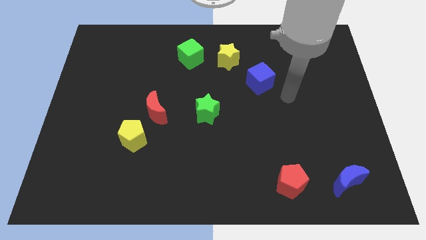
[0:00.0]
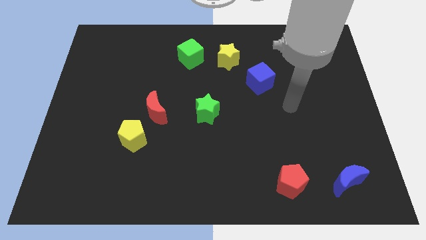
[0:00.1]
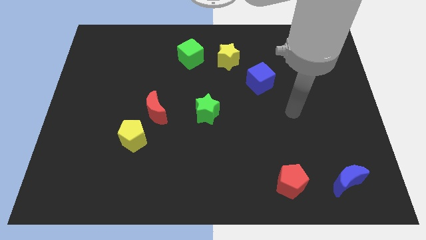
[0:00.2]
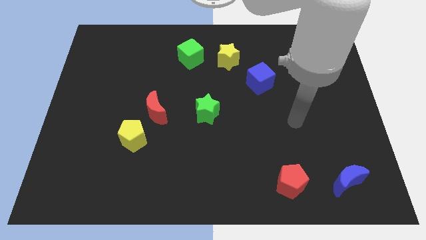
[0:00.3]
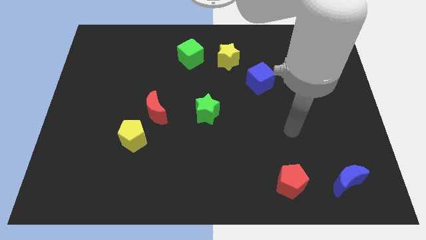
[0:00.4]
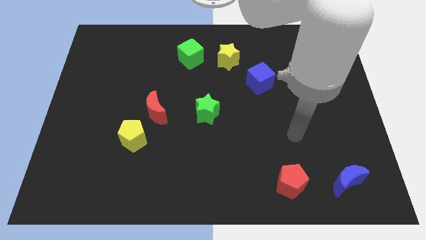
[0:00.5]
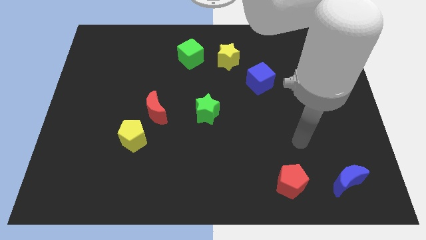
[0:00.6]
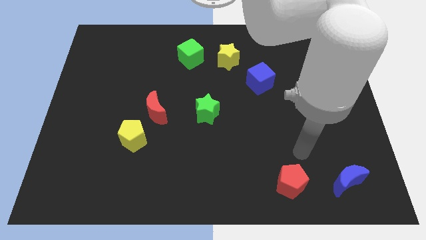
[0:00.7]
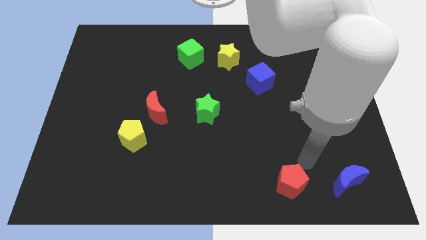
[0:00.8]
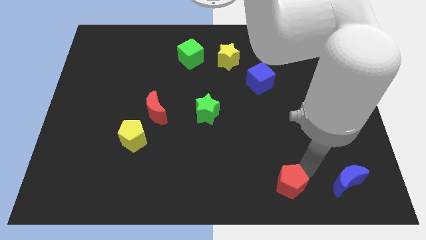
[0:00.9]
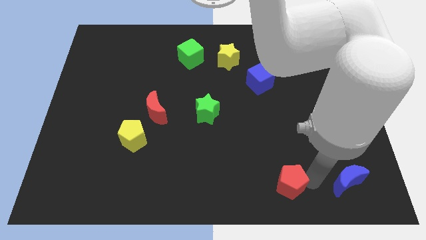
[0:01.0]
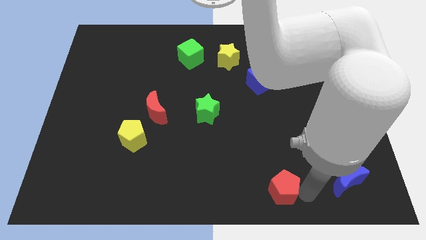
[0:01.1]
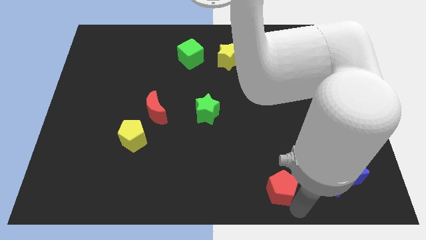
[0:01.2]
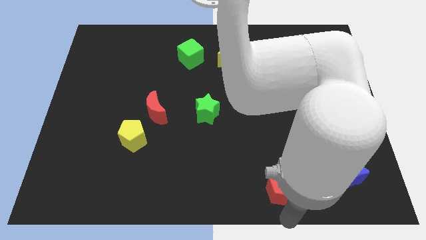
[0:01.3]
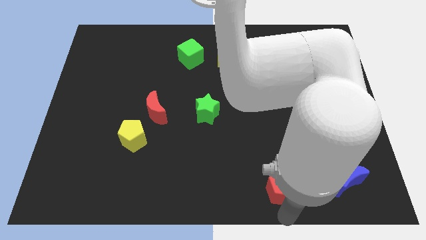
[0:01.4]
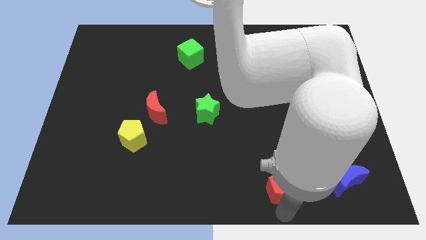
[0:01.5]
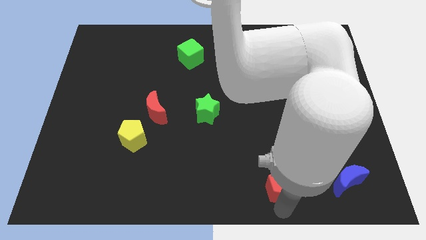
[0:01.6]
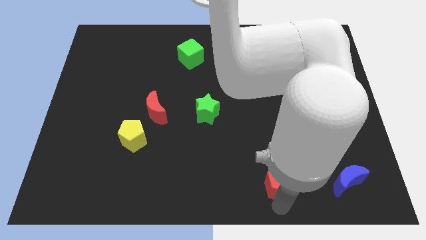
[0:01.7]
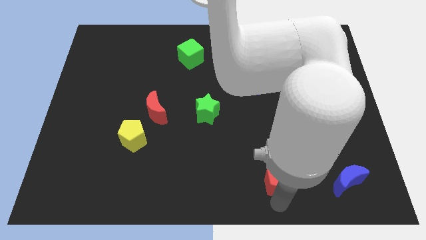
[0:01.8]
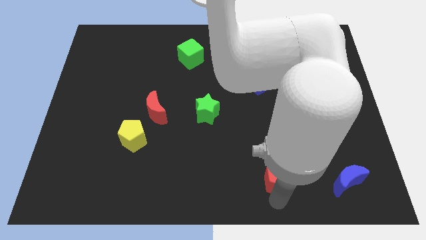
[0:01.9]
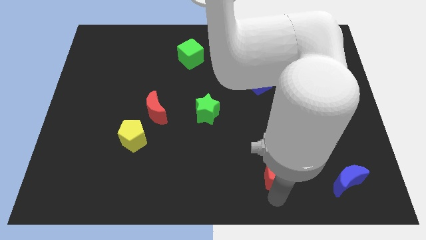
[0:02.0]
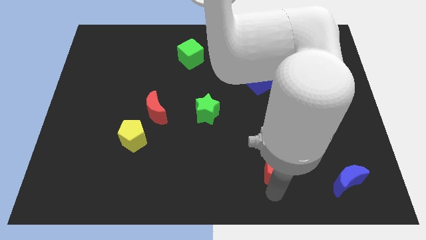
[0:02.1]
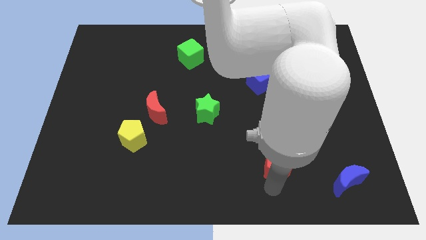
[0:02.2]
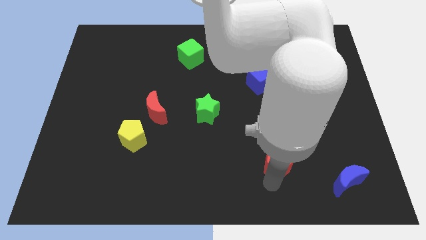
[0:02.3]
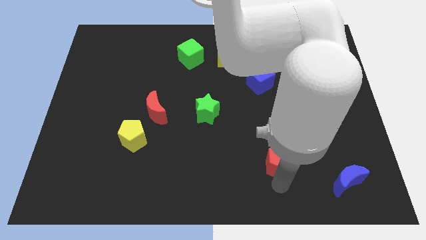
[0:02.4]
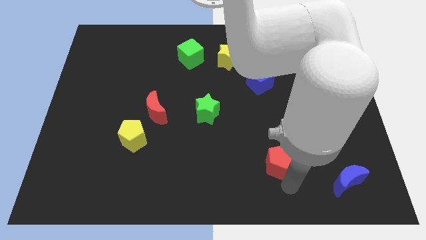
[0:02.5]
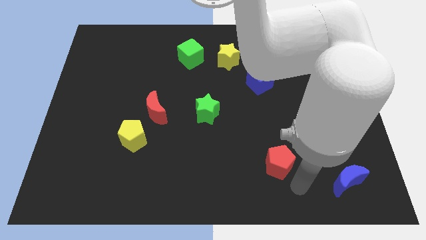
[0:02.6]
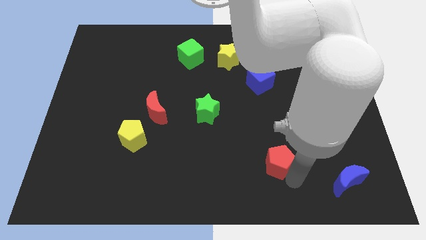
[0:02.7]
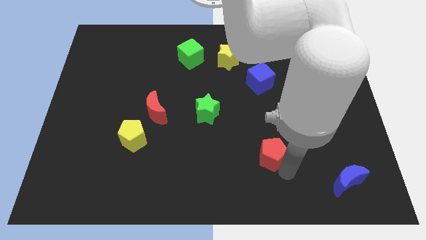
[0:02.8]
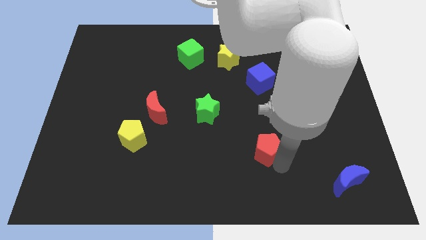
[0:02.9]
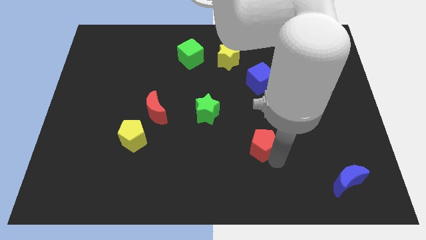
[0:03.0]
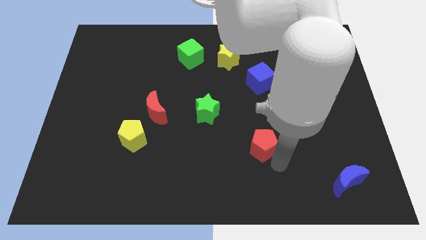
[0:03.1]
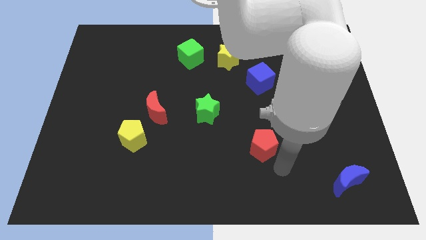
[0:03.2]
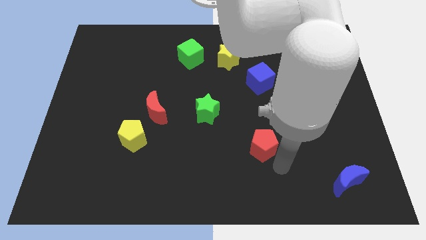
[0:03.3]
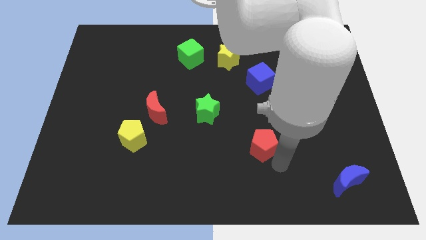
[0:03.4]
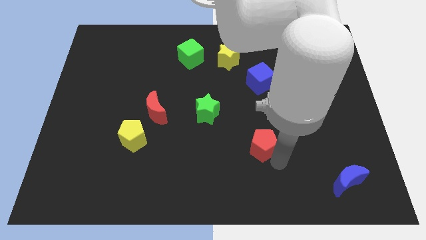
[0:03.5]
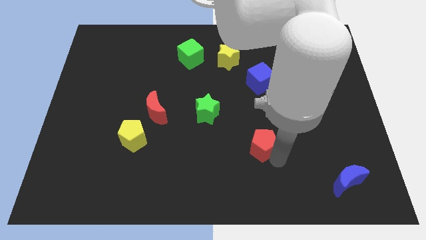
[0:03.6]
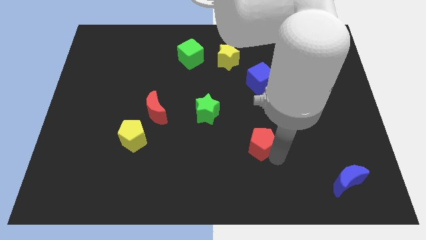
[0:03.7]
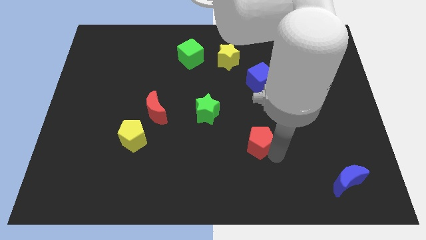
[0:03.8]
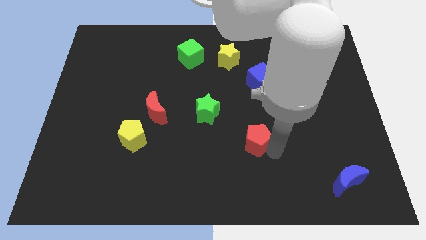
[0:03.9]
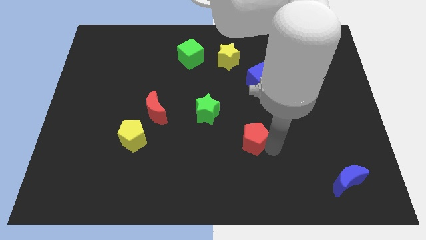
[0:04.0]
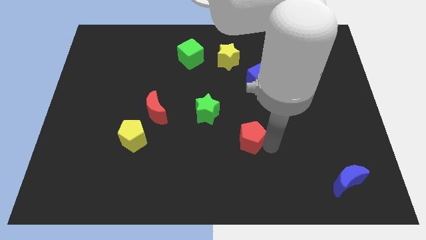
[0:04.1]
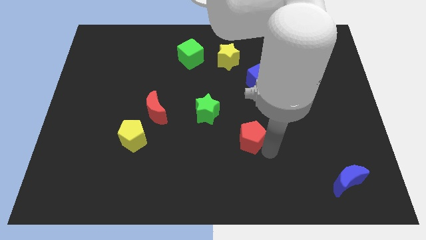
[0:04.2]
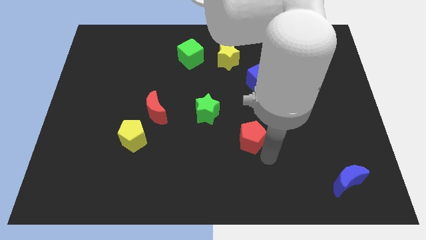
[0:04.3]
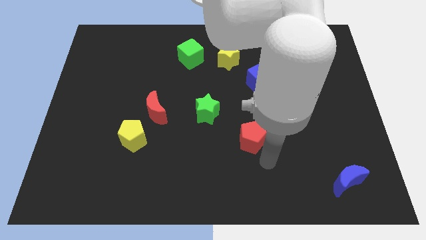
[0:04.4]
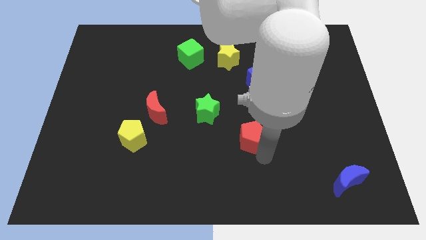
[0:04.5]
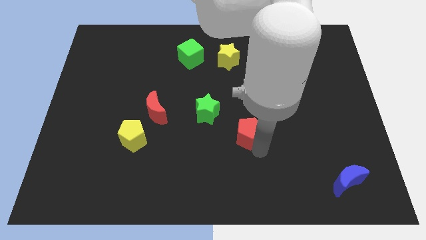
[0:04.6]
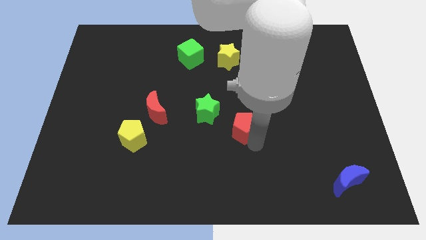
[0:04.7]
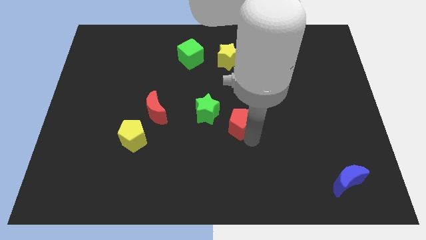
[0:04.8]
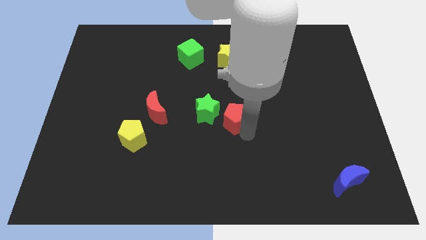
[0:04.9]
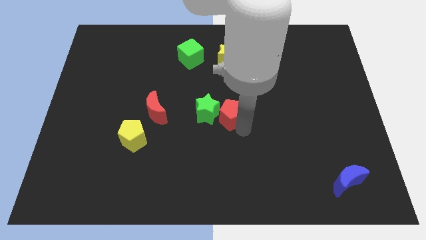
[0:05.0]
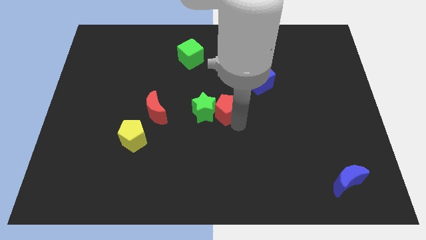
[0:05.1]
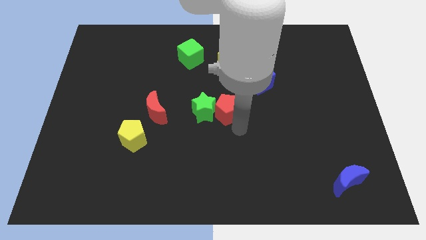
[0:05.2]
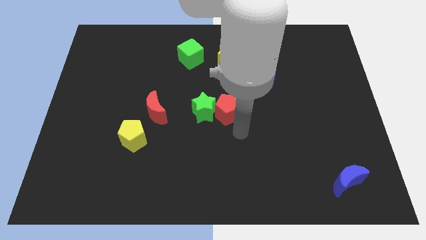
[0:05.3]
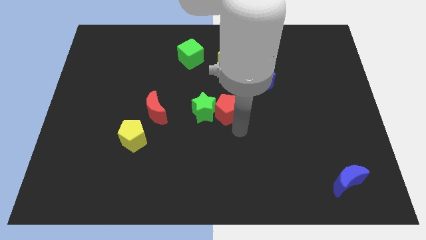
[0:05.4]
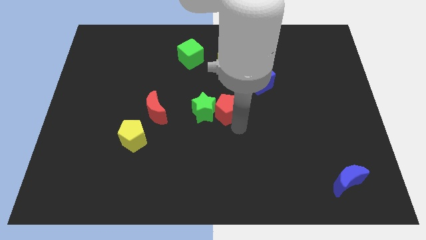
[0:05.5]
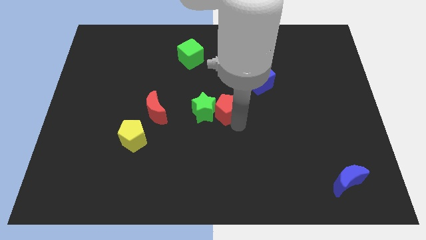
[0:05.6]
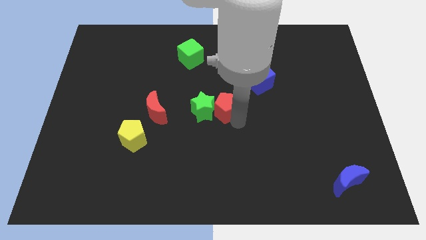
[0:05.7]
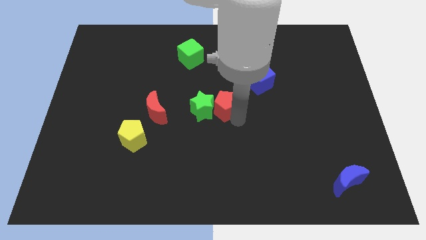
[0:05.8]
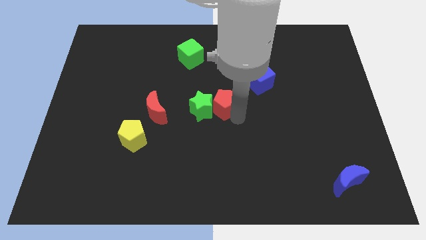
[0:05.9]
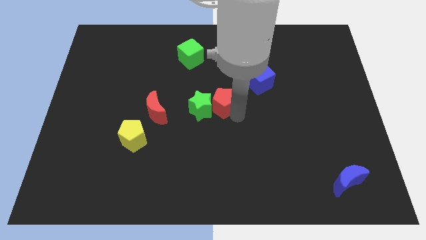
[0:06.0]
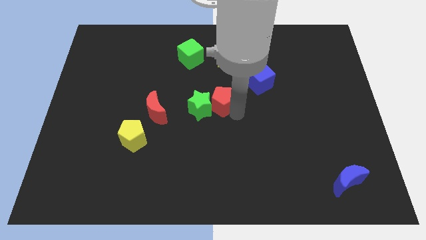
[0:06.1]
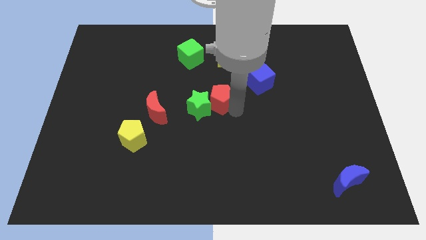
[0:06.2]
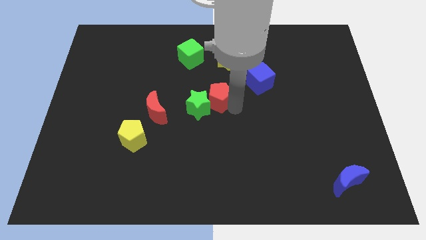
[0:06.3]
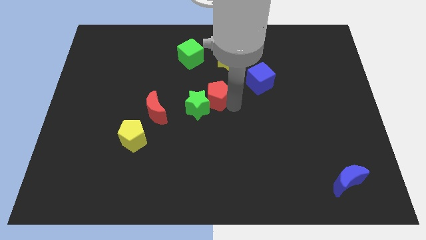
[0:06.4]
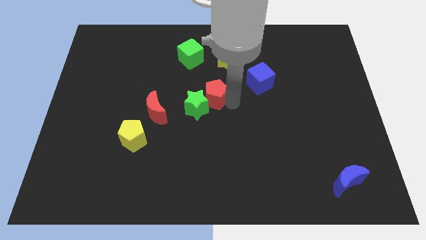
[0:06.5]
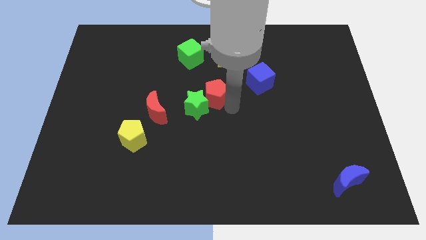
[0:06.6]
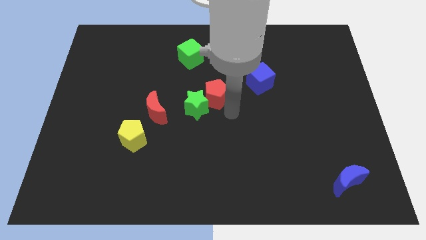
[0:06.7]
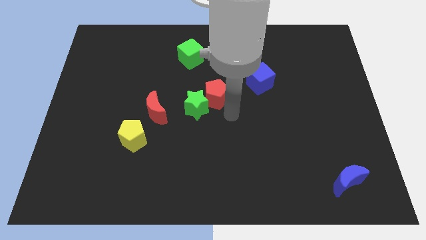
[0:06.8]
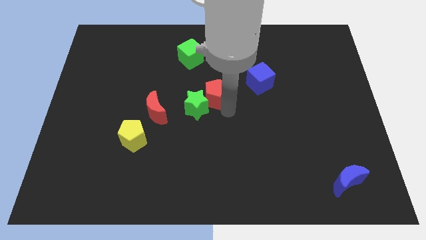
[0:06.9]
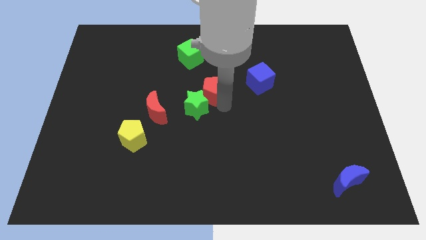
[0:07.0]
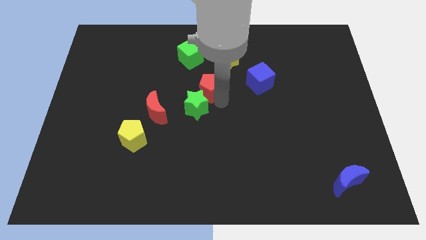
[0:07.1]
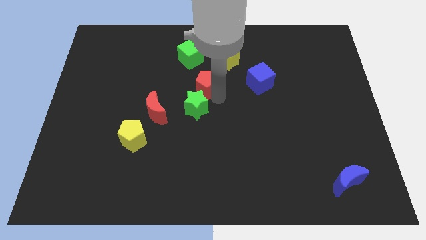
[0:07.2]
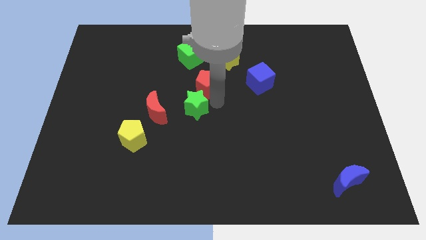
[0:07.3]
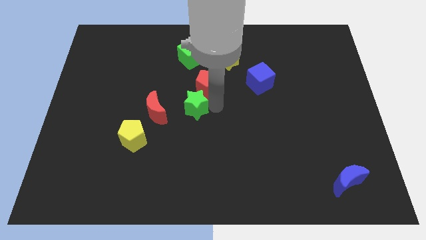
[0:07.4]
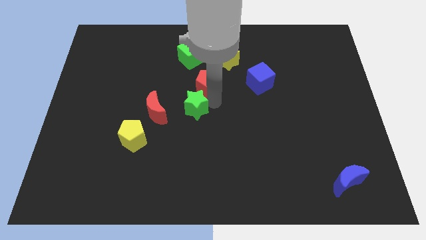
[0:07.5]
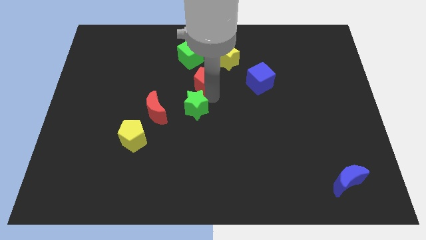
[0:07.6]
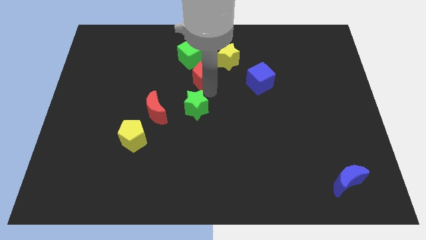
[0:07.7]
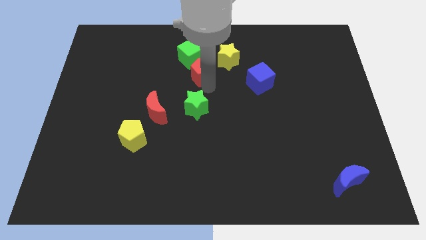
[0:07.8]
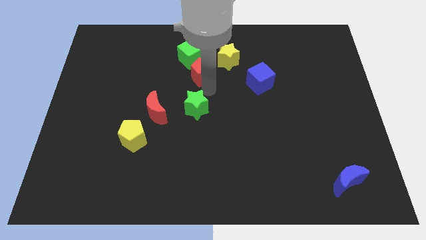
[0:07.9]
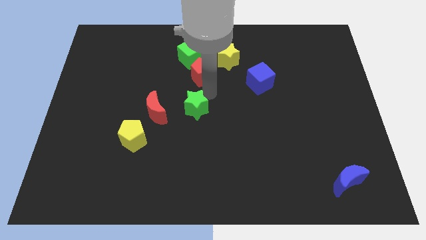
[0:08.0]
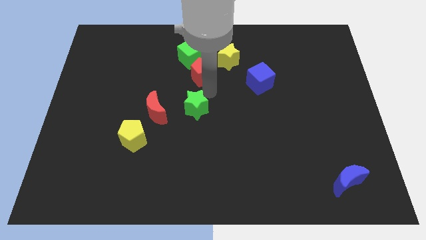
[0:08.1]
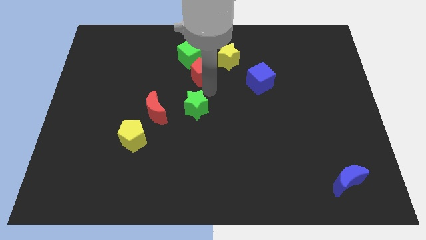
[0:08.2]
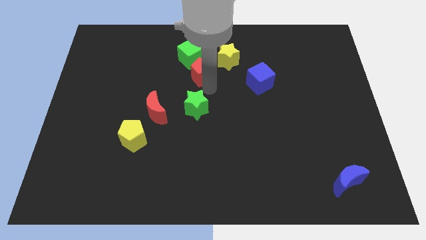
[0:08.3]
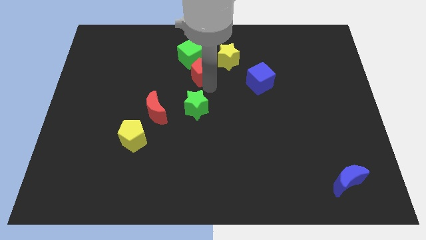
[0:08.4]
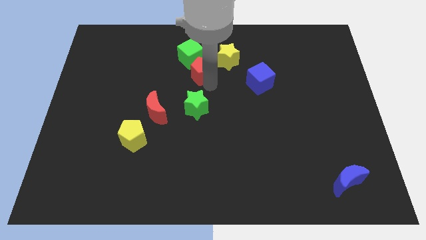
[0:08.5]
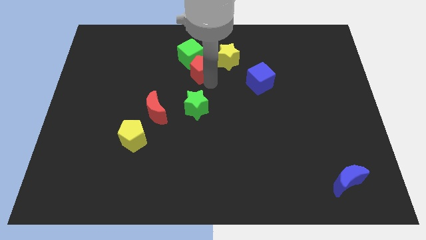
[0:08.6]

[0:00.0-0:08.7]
put the red pentagon close to the green cube
